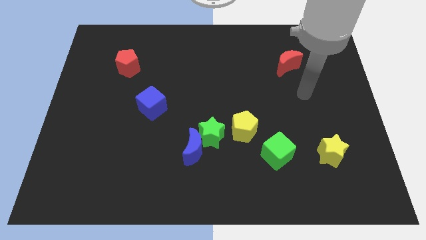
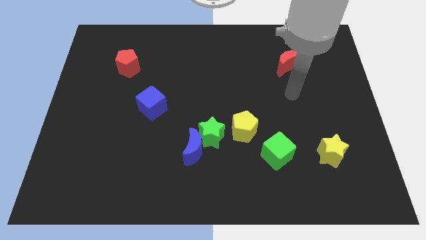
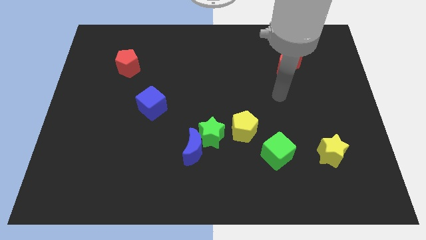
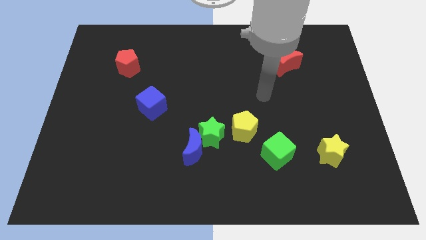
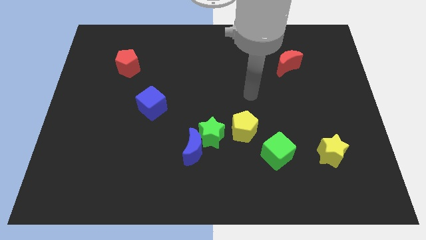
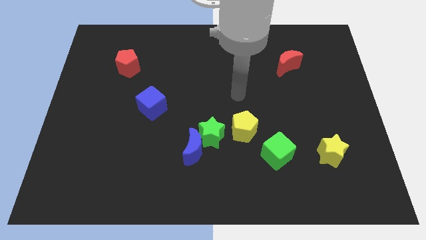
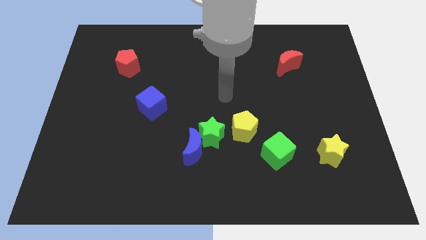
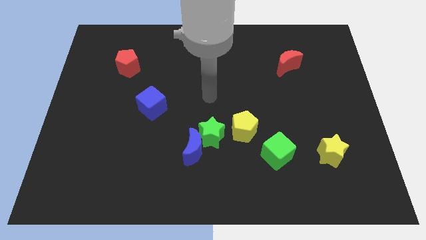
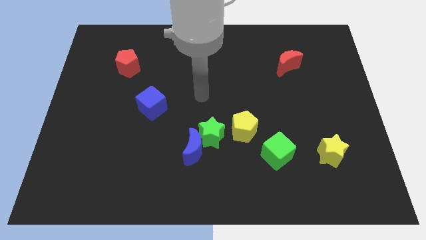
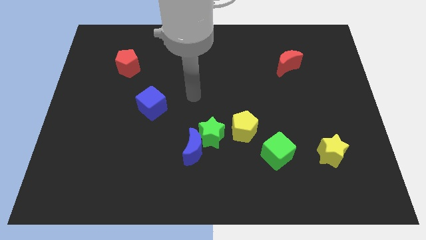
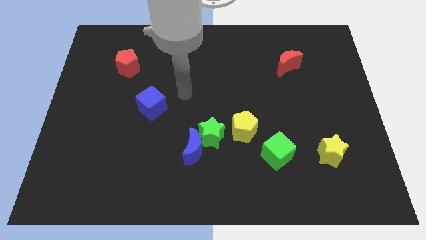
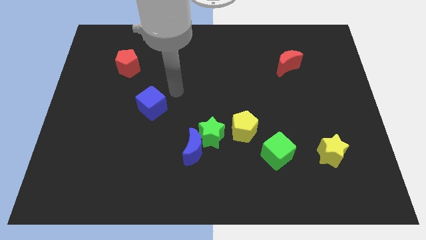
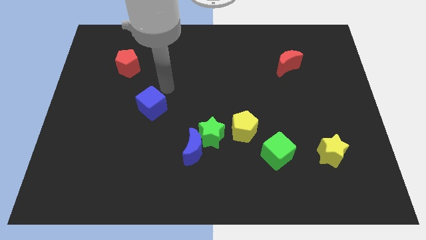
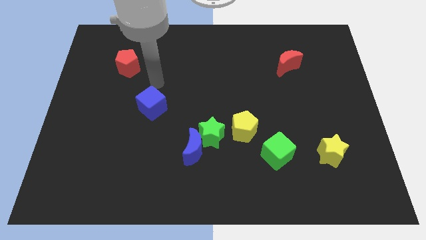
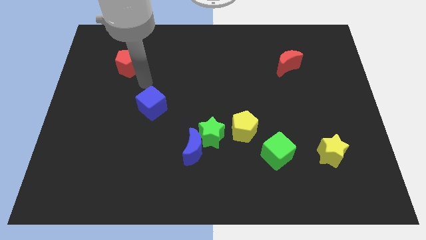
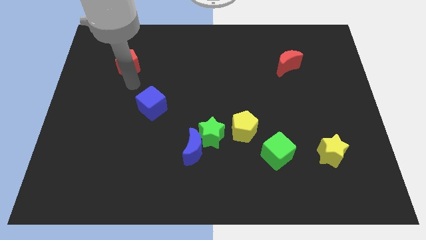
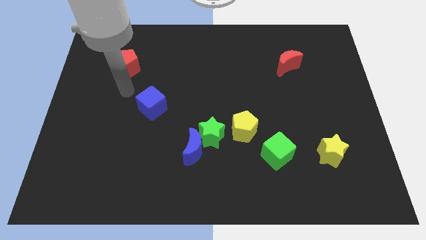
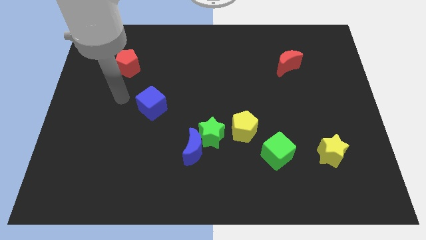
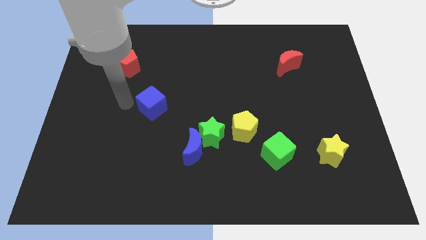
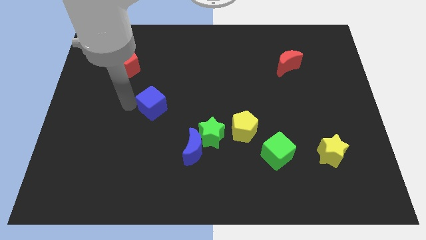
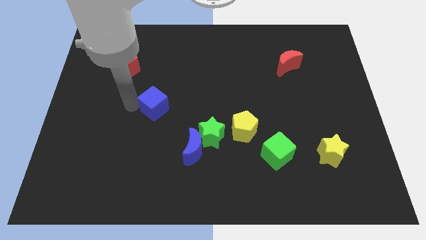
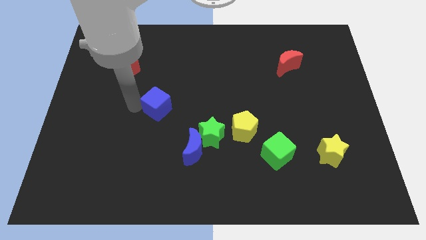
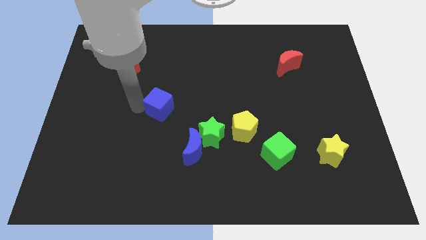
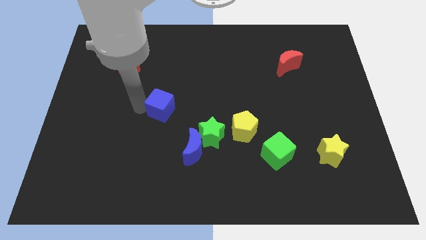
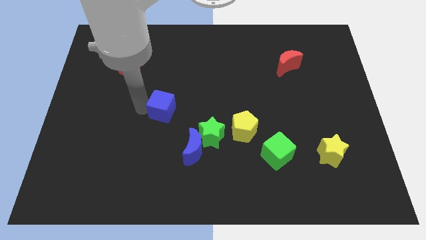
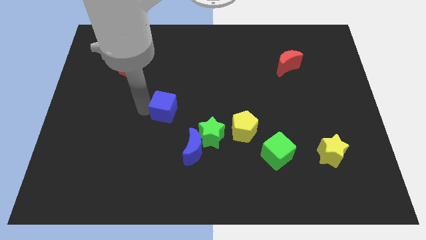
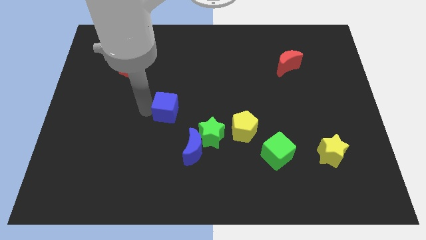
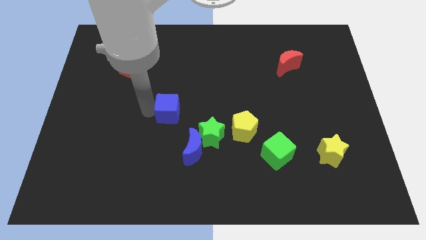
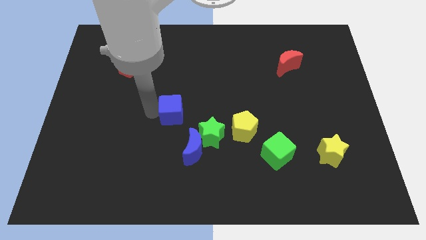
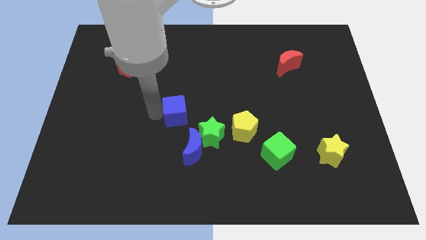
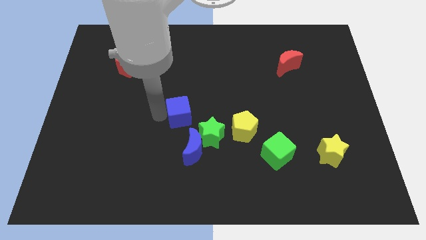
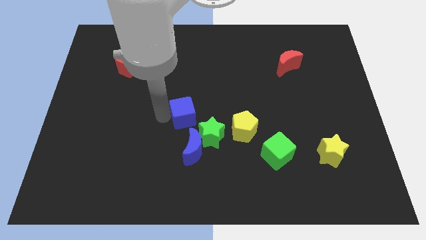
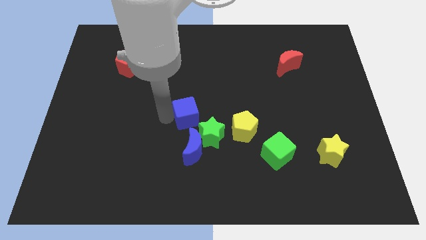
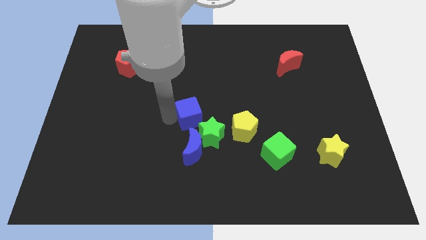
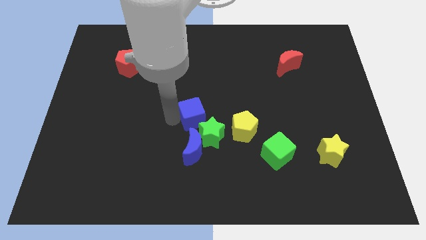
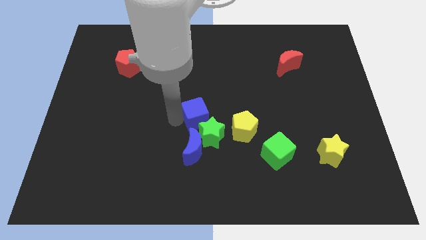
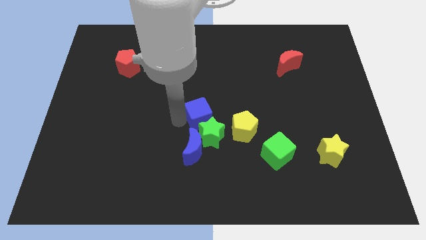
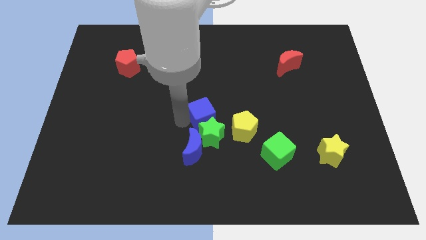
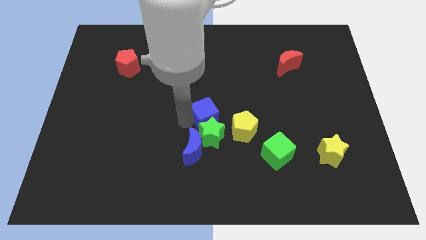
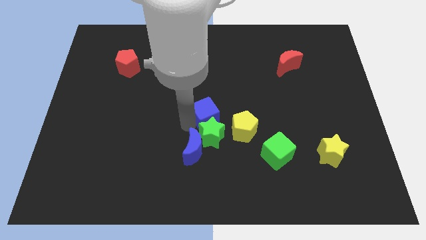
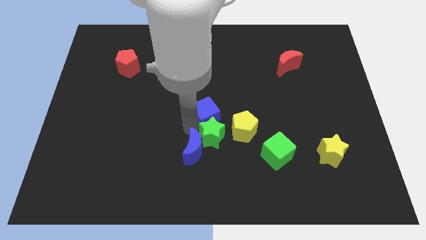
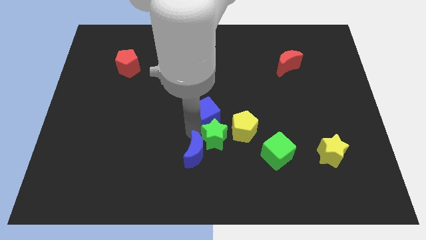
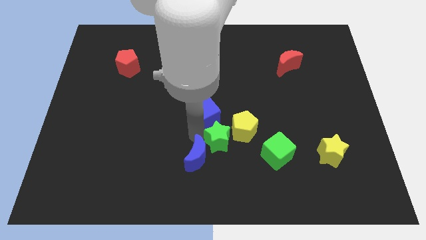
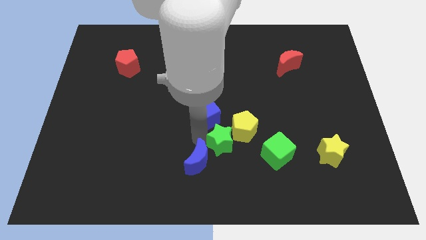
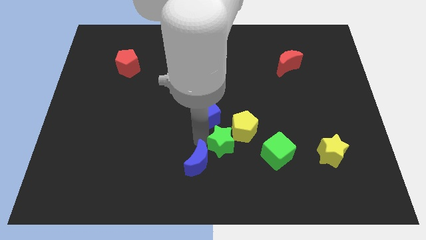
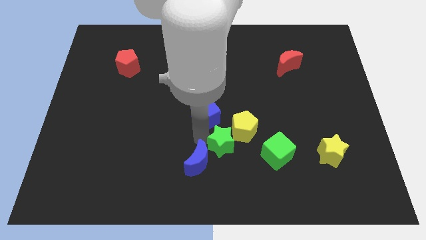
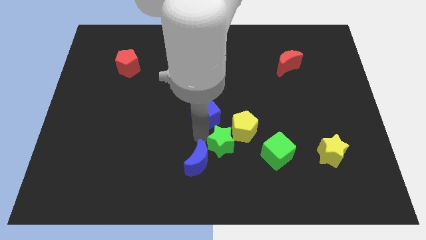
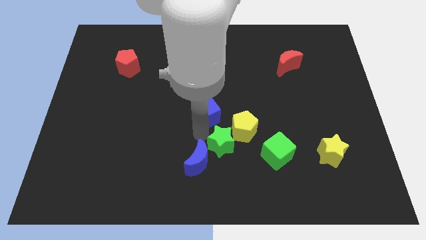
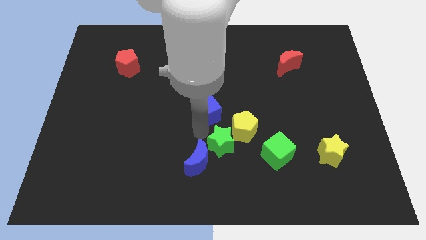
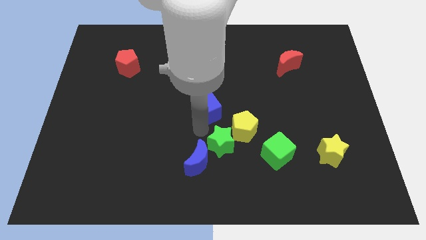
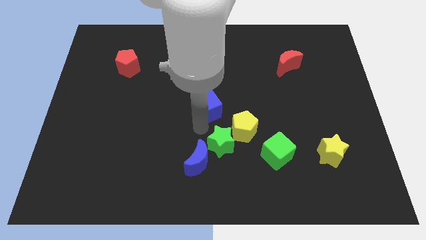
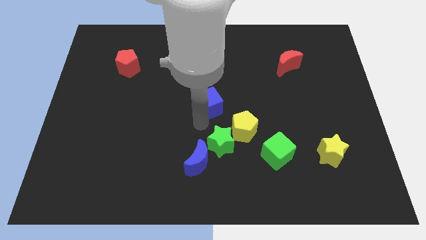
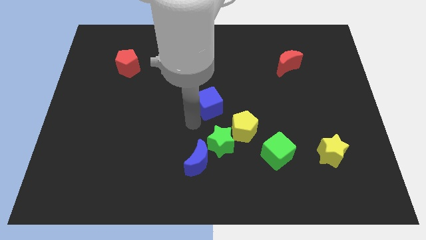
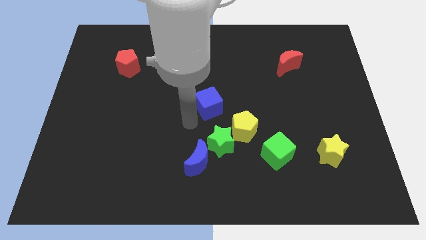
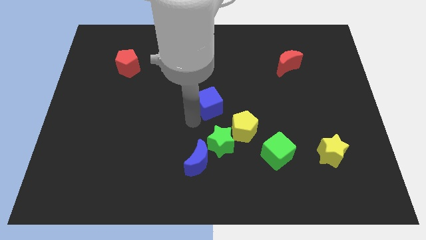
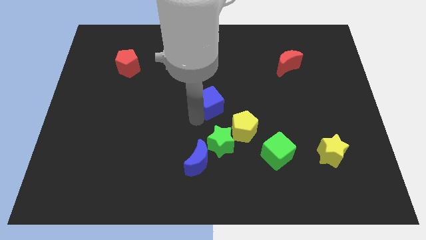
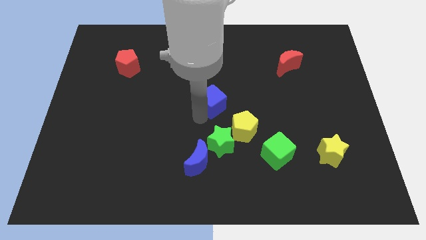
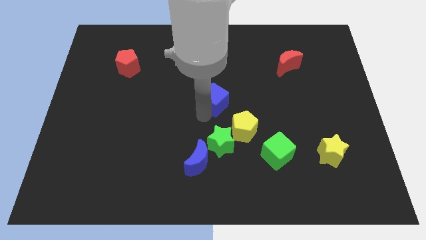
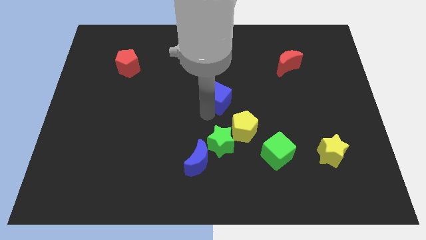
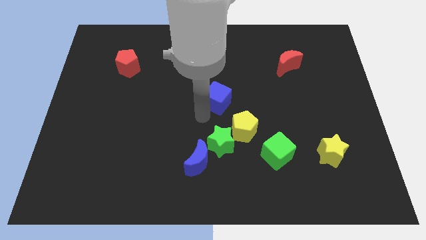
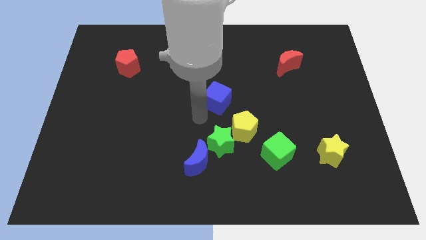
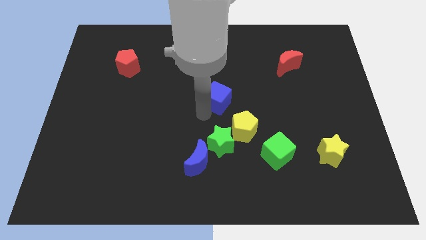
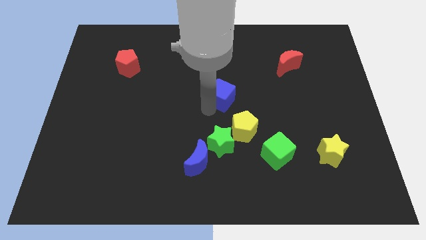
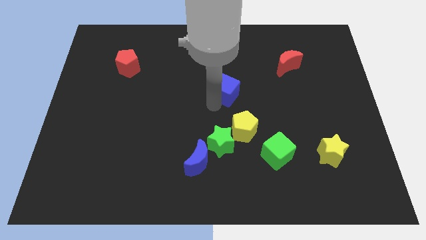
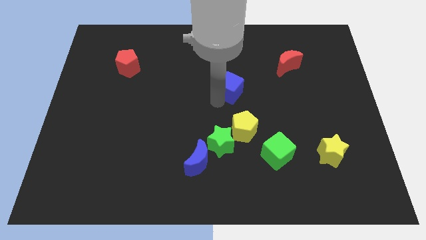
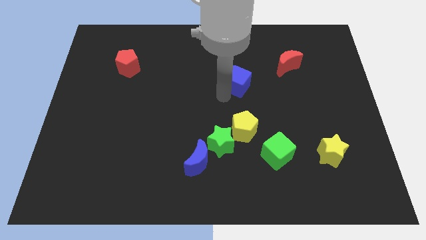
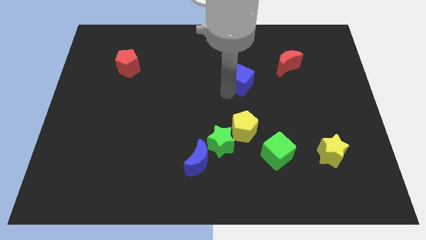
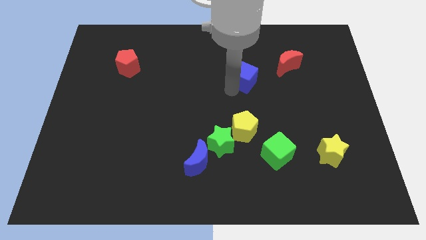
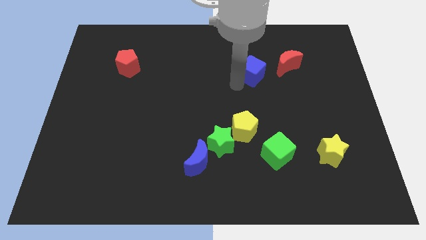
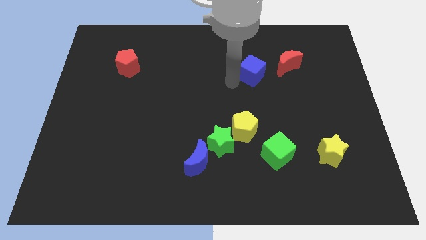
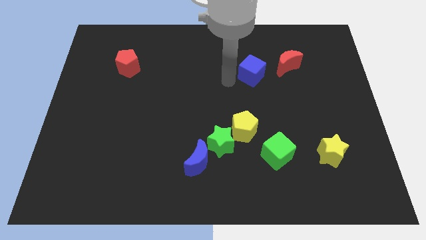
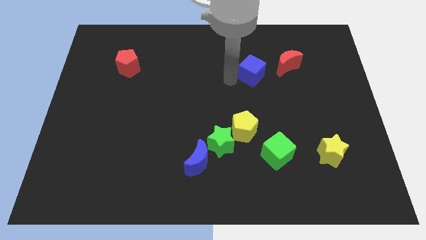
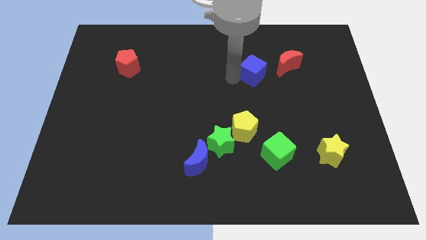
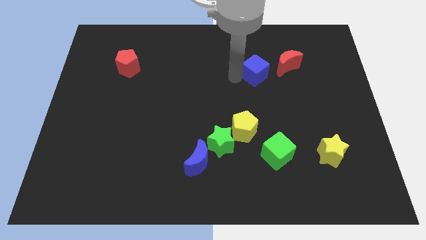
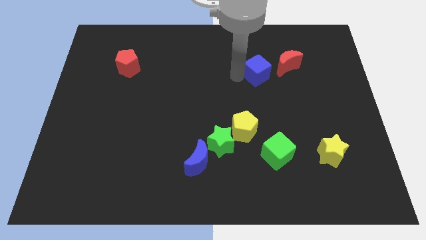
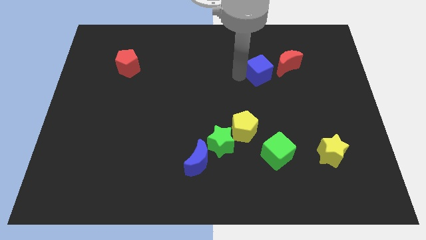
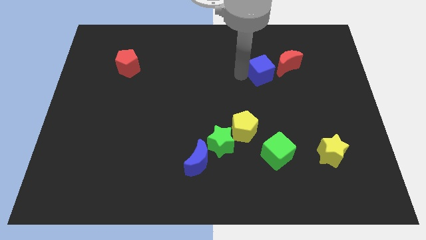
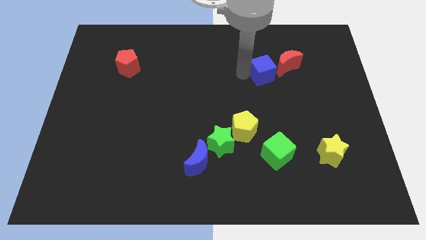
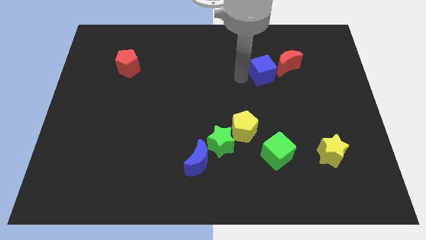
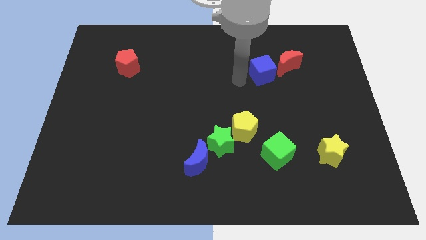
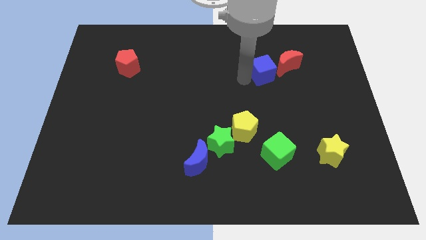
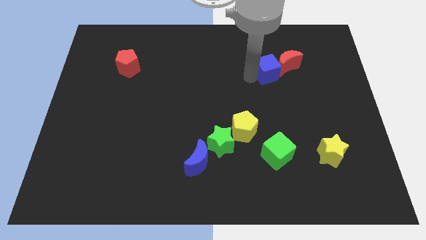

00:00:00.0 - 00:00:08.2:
push the blue cube to the red moon
